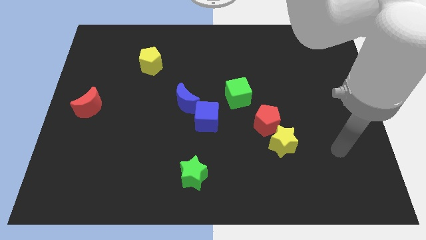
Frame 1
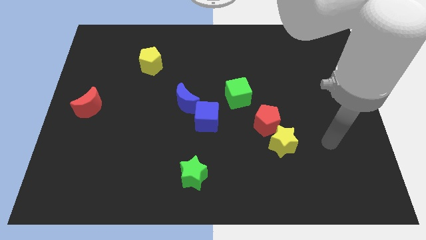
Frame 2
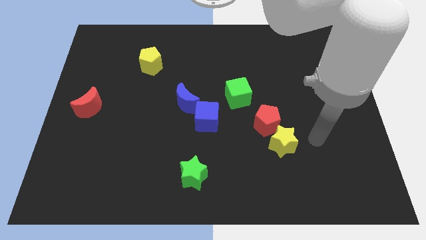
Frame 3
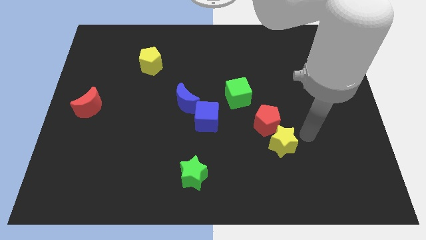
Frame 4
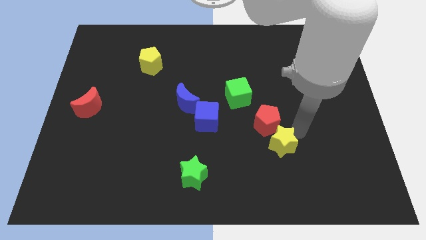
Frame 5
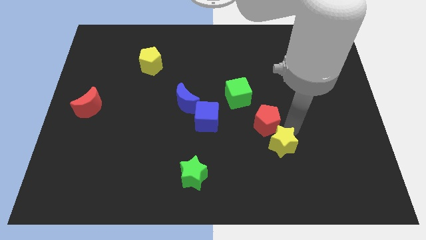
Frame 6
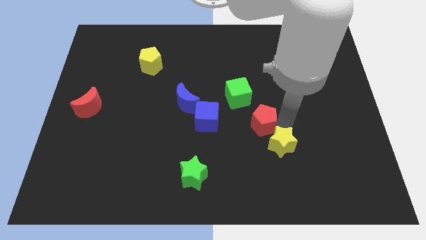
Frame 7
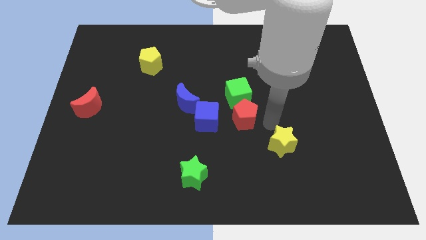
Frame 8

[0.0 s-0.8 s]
separate the yellow star from the red pentagon

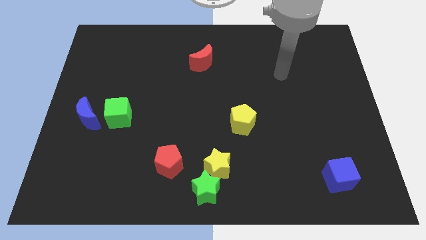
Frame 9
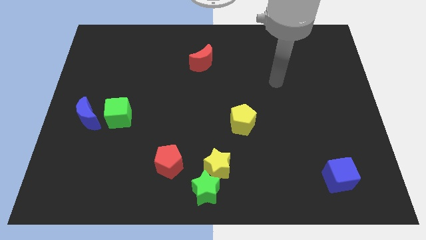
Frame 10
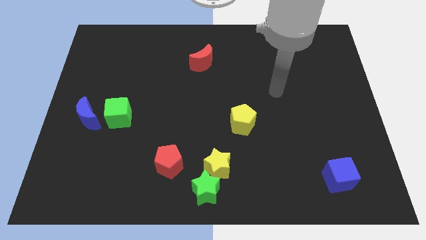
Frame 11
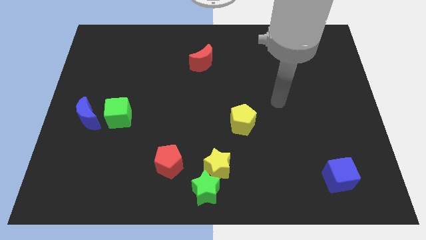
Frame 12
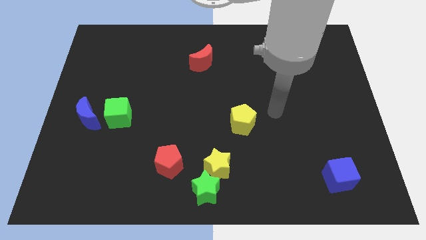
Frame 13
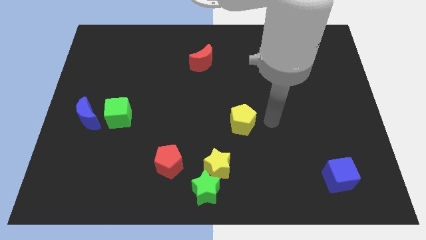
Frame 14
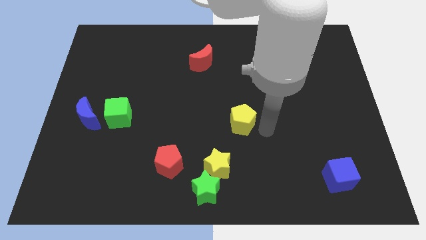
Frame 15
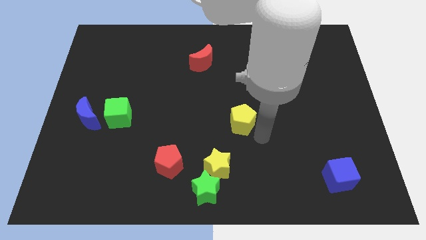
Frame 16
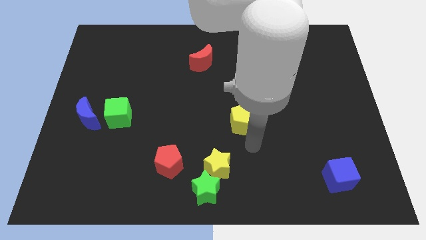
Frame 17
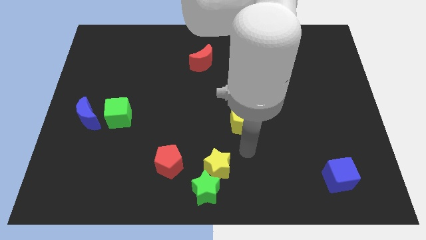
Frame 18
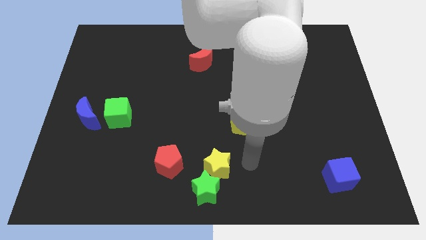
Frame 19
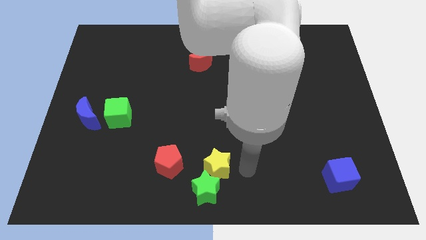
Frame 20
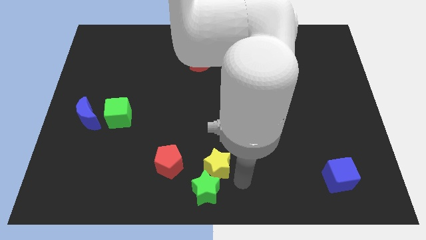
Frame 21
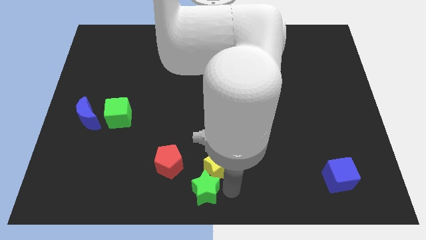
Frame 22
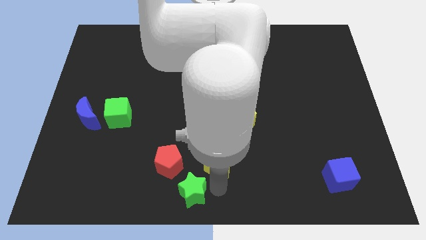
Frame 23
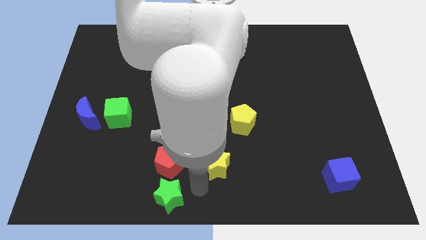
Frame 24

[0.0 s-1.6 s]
move the yellow star away from the green star

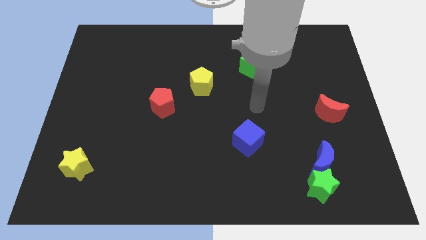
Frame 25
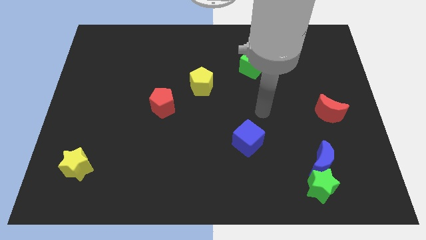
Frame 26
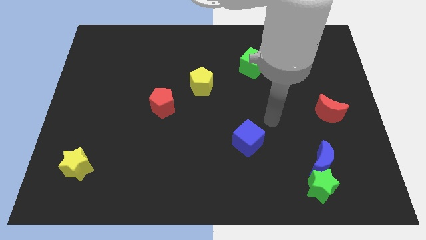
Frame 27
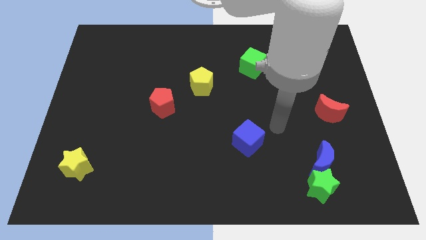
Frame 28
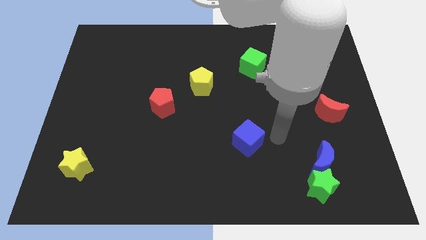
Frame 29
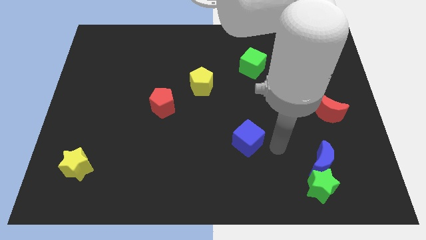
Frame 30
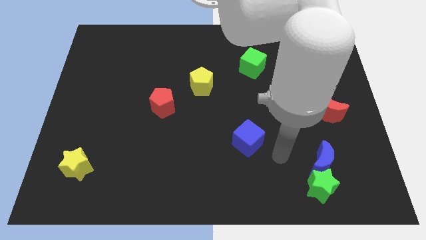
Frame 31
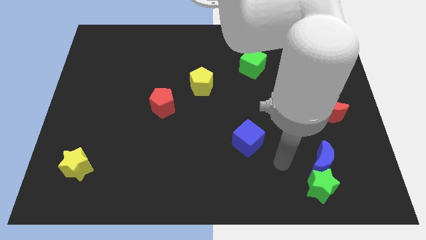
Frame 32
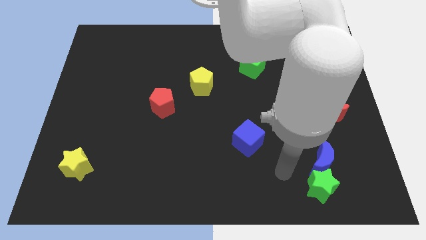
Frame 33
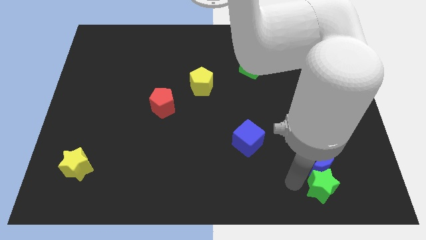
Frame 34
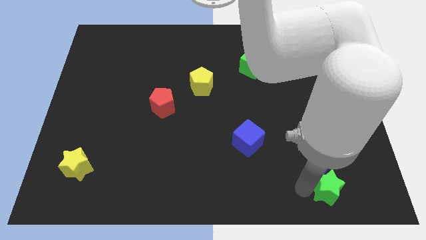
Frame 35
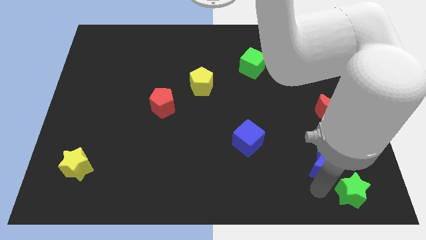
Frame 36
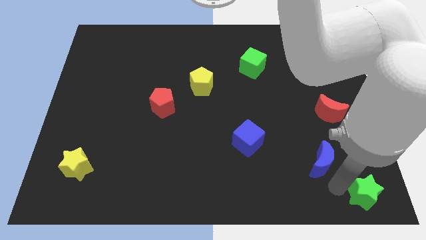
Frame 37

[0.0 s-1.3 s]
separate the blue moon from the green star

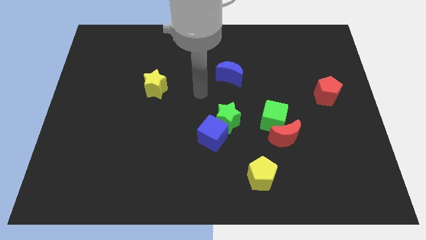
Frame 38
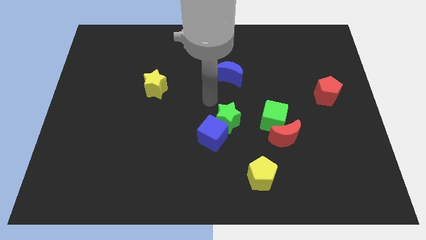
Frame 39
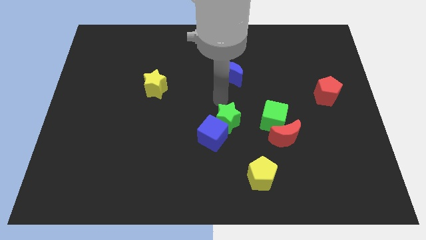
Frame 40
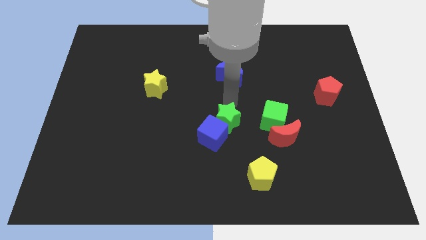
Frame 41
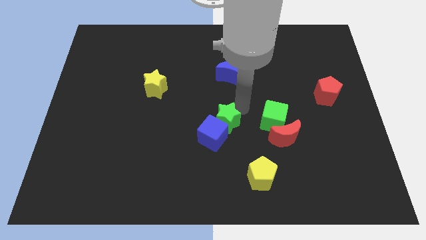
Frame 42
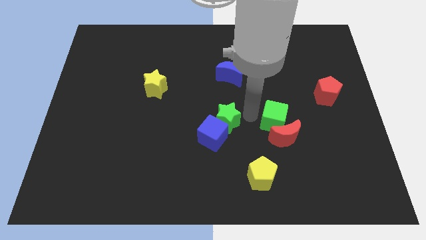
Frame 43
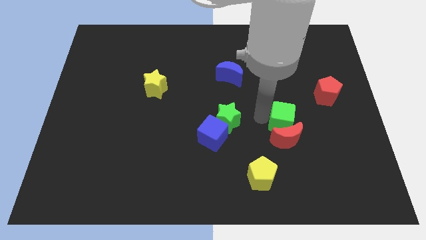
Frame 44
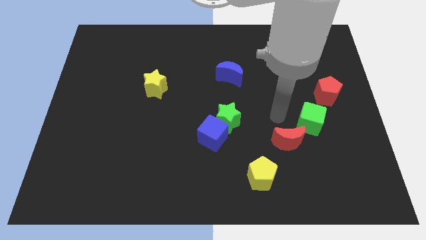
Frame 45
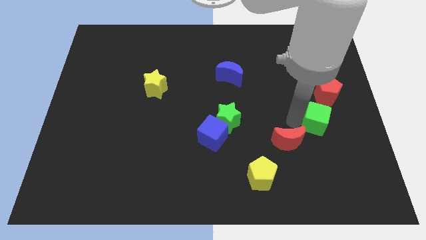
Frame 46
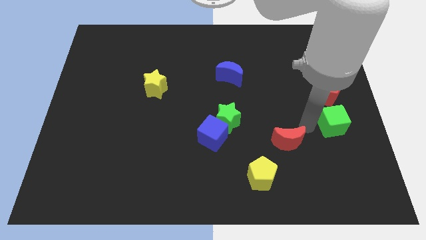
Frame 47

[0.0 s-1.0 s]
pull the red moon apart from the green cube

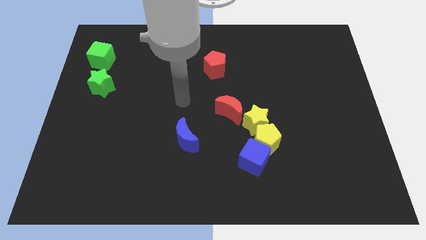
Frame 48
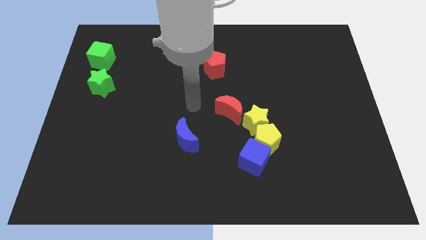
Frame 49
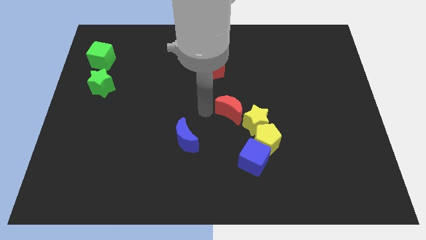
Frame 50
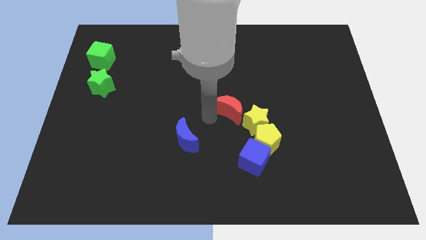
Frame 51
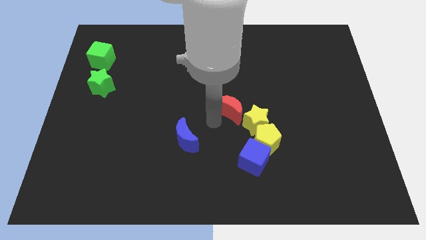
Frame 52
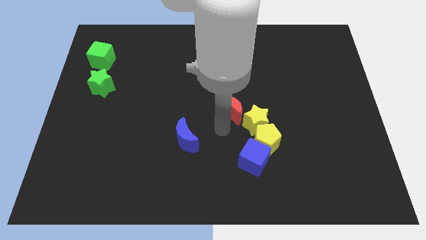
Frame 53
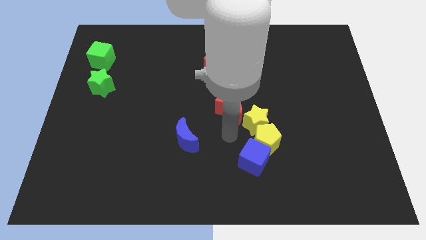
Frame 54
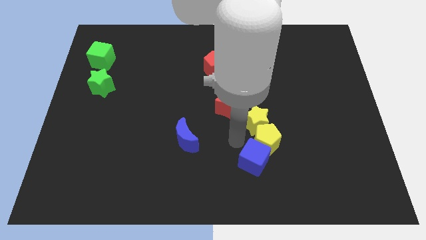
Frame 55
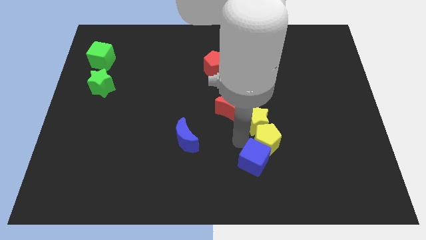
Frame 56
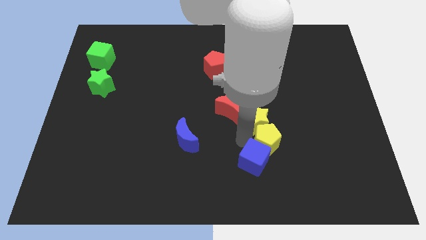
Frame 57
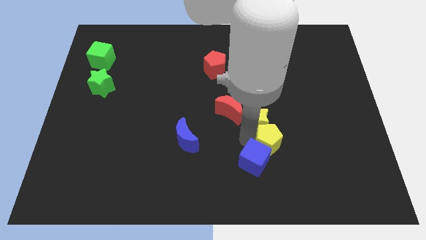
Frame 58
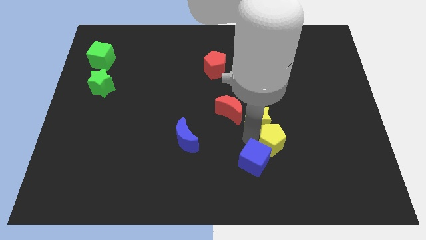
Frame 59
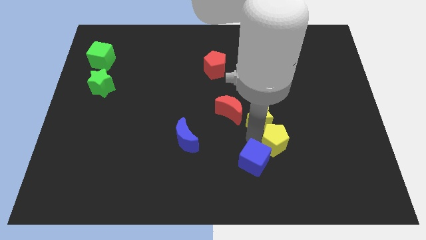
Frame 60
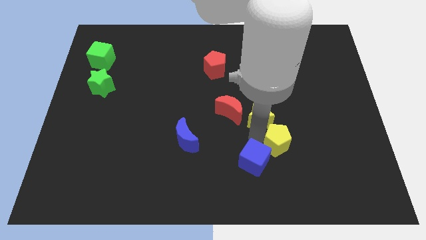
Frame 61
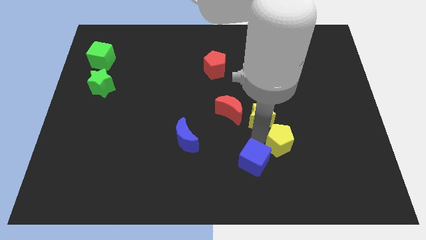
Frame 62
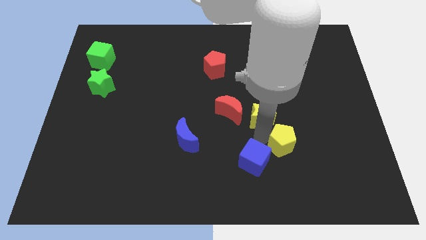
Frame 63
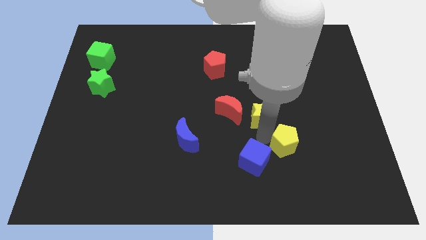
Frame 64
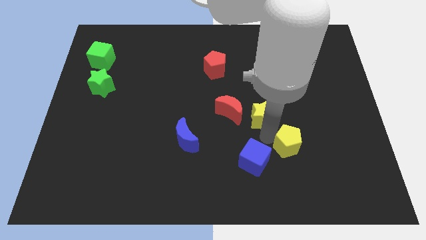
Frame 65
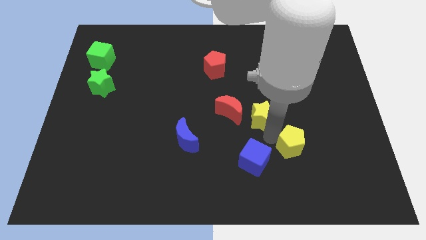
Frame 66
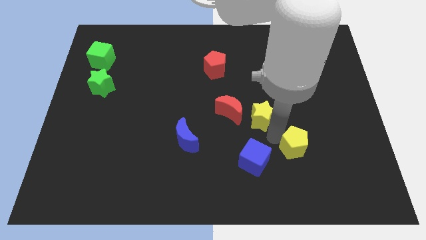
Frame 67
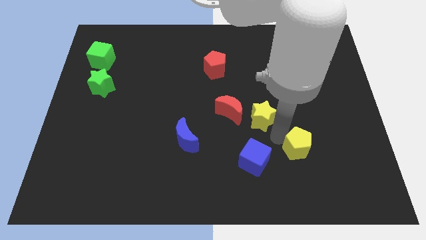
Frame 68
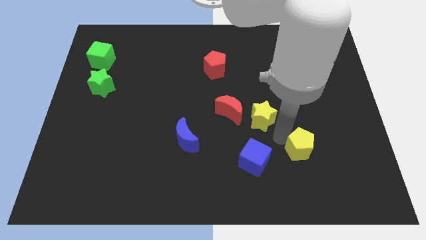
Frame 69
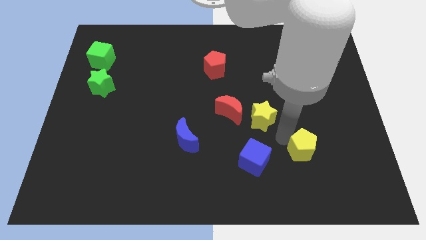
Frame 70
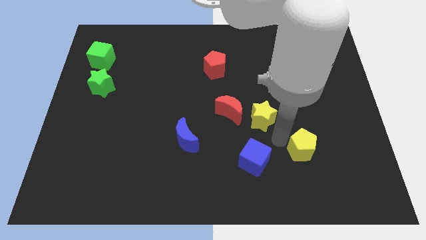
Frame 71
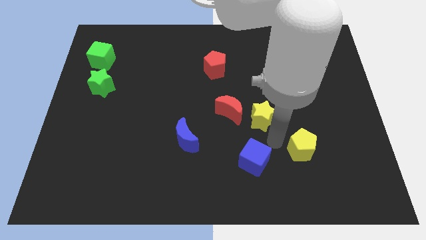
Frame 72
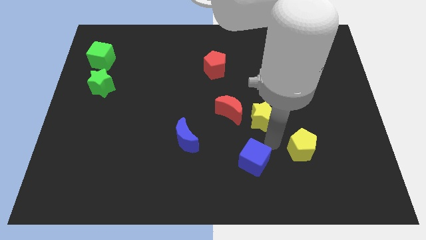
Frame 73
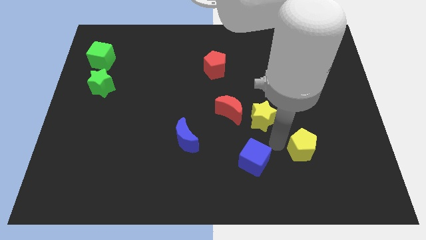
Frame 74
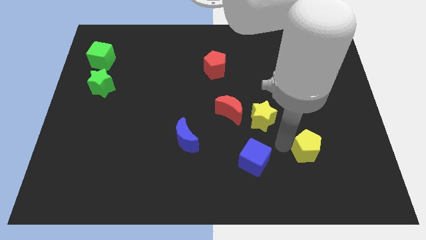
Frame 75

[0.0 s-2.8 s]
separate the yellow pentagon from the yellow star and blue cube

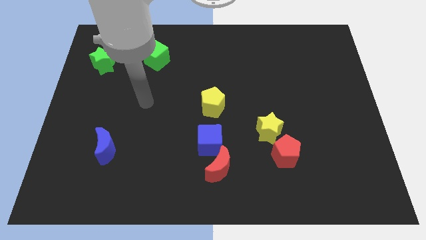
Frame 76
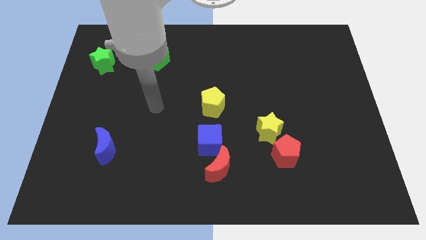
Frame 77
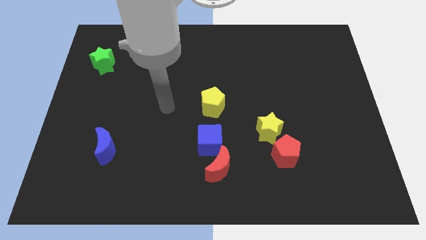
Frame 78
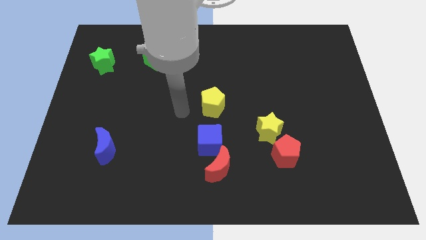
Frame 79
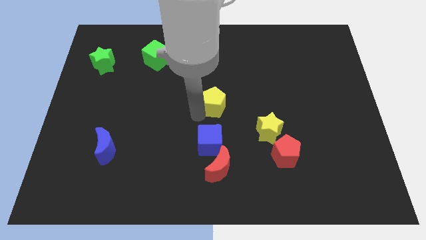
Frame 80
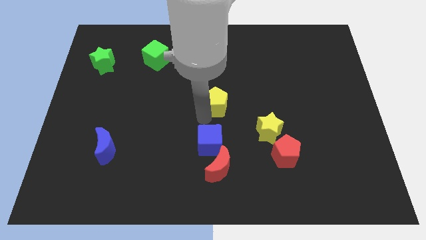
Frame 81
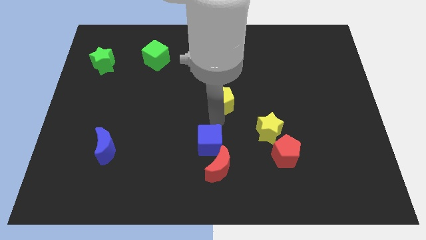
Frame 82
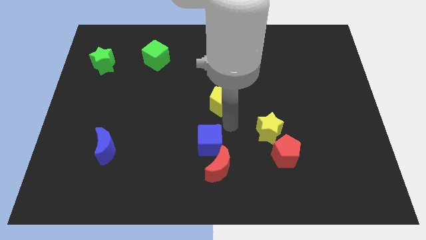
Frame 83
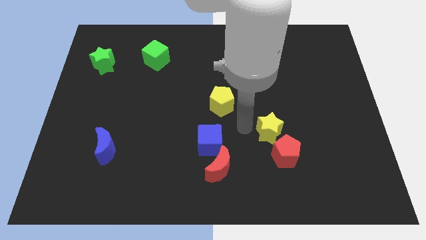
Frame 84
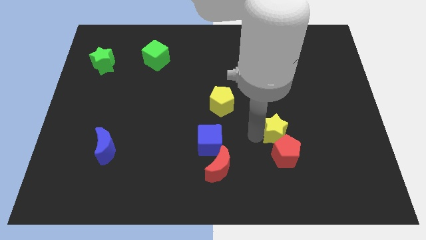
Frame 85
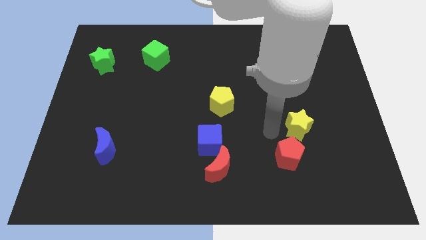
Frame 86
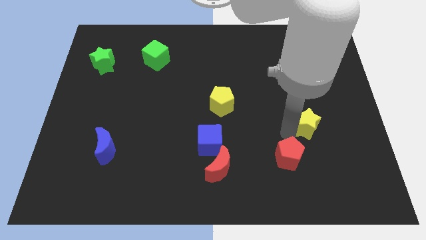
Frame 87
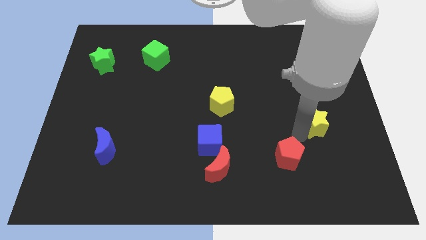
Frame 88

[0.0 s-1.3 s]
pull the red pentagon apart from the yellow star

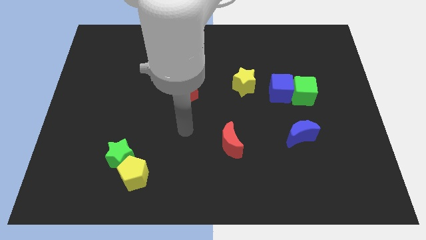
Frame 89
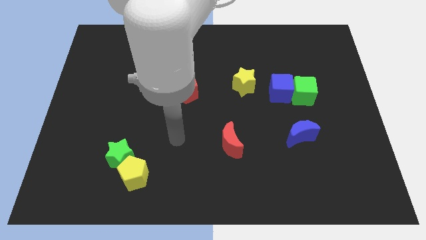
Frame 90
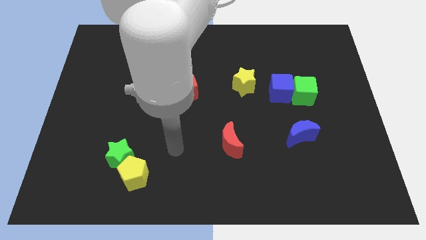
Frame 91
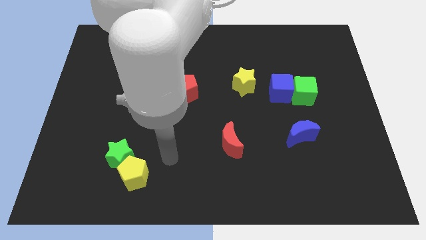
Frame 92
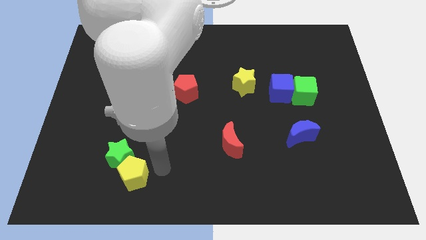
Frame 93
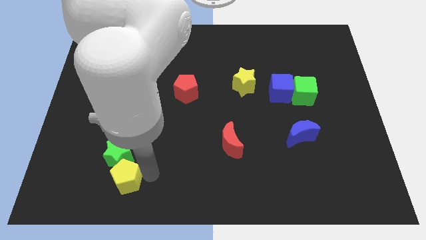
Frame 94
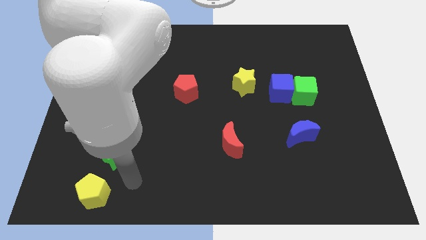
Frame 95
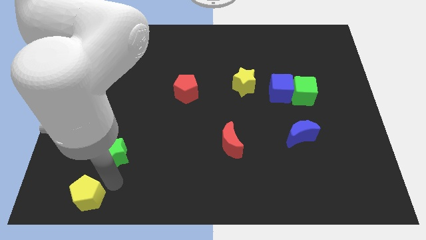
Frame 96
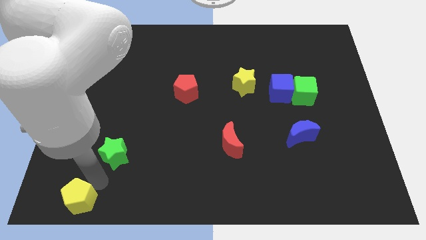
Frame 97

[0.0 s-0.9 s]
pull the green star apart from the yellow pentagon
